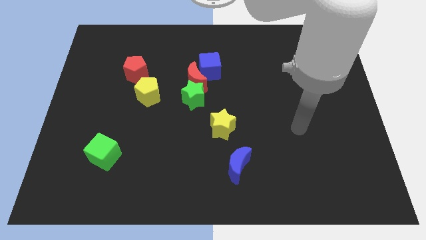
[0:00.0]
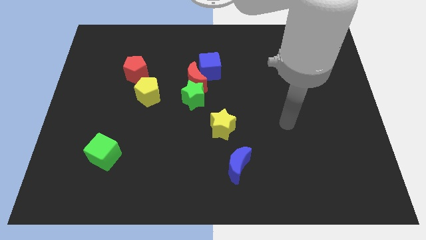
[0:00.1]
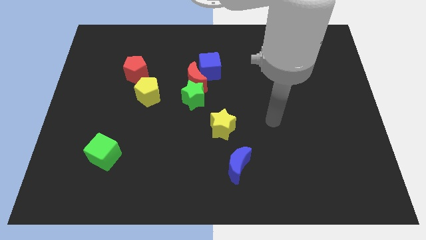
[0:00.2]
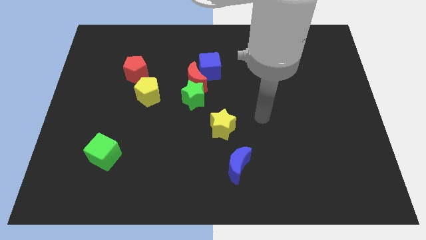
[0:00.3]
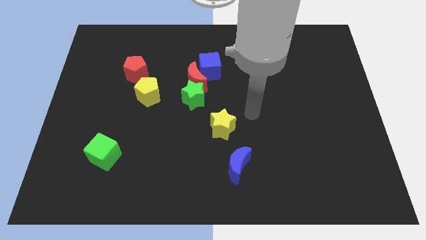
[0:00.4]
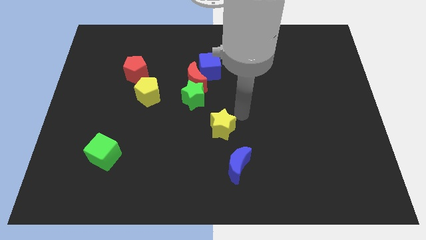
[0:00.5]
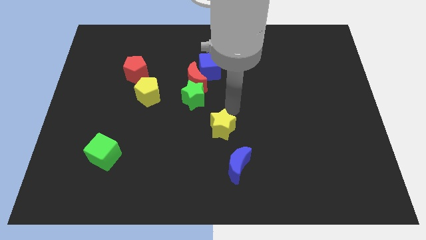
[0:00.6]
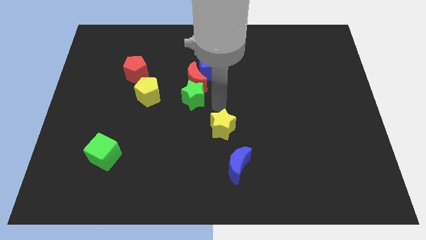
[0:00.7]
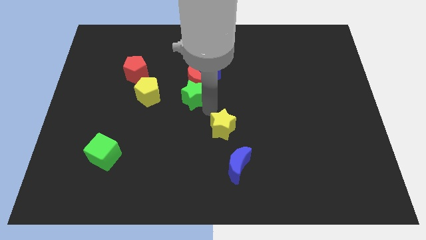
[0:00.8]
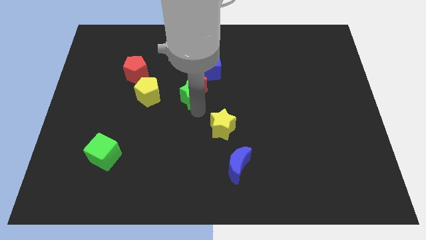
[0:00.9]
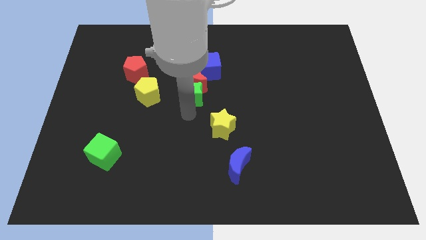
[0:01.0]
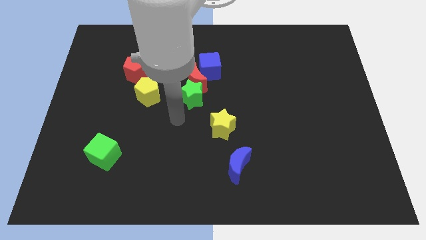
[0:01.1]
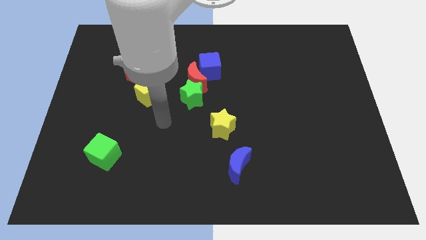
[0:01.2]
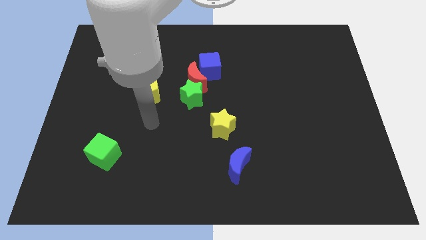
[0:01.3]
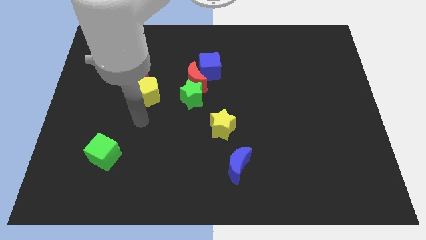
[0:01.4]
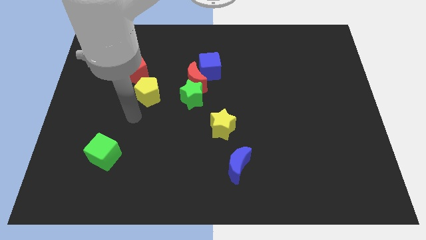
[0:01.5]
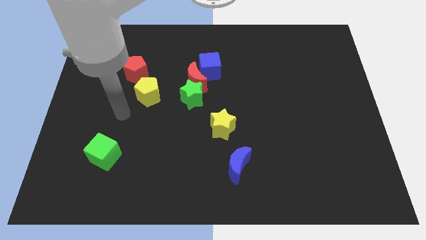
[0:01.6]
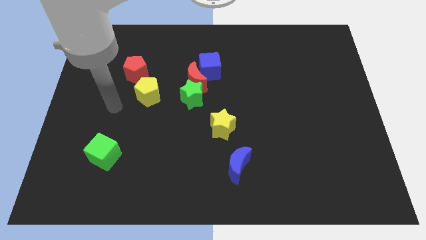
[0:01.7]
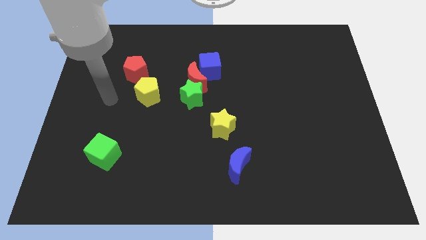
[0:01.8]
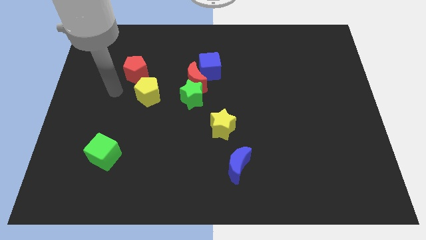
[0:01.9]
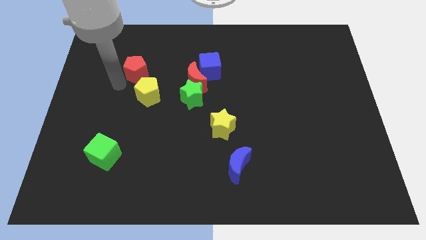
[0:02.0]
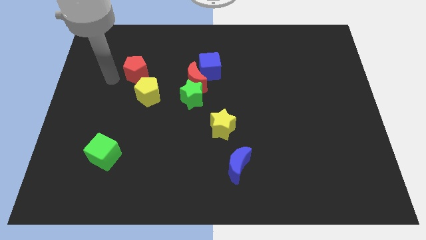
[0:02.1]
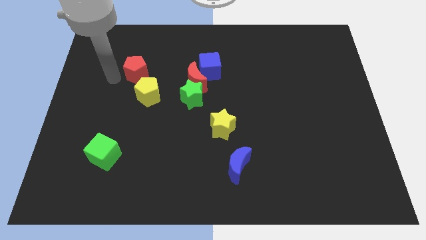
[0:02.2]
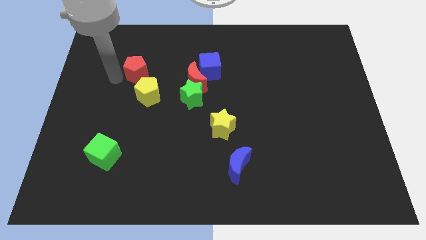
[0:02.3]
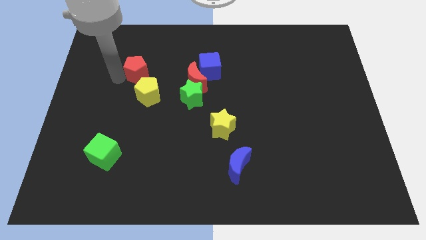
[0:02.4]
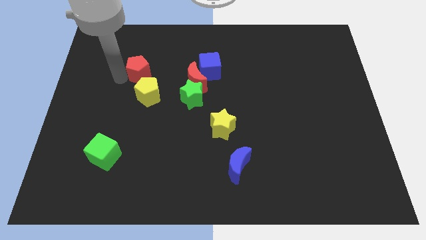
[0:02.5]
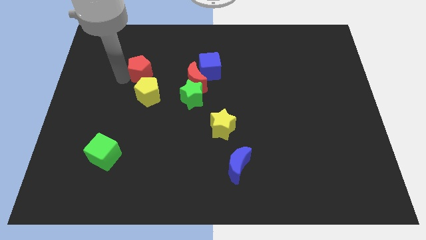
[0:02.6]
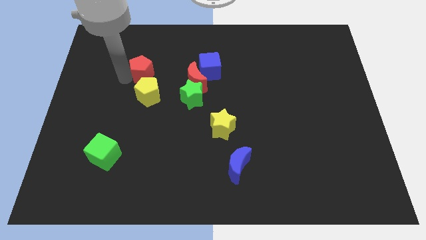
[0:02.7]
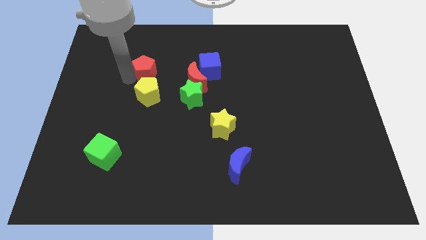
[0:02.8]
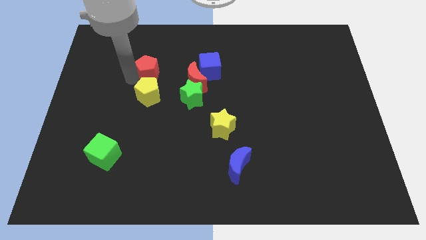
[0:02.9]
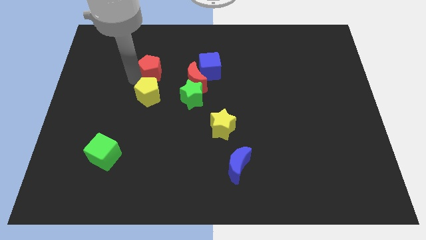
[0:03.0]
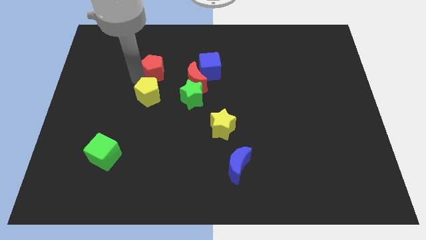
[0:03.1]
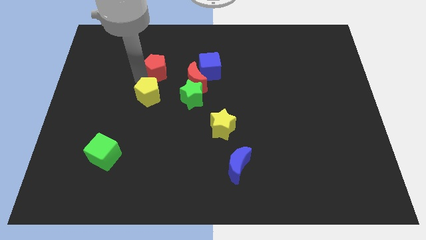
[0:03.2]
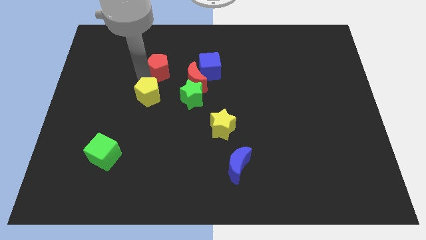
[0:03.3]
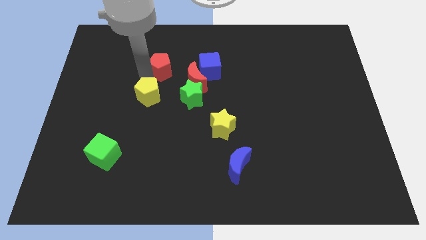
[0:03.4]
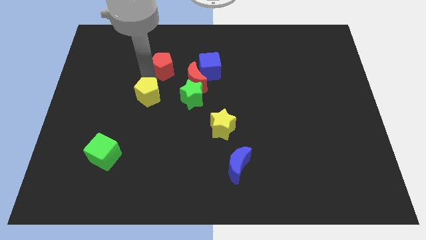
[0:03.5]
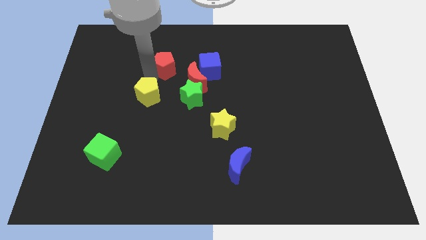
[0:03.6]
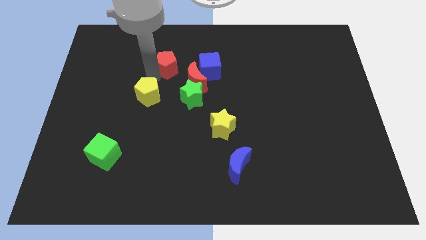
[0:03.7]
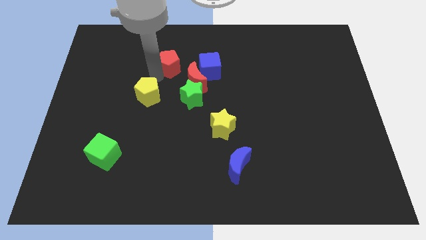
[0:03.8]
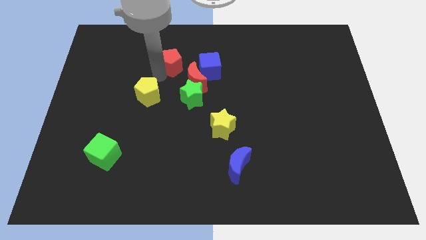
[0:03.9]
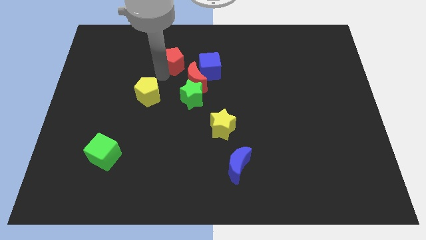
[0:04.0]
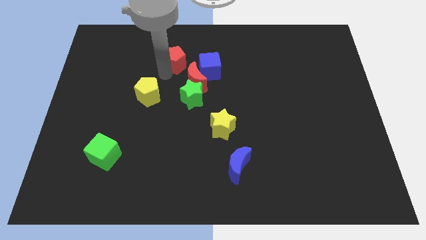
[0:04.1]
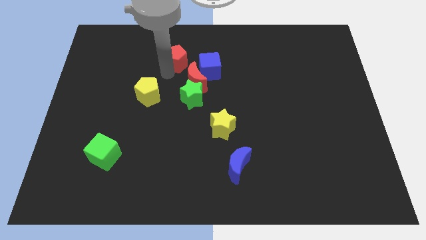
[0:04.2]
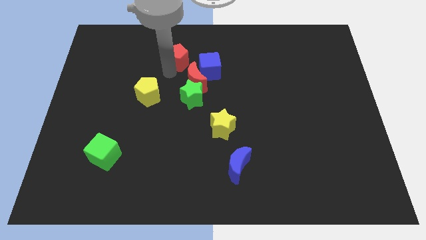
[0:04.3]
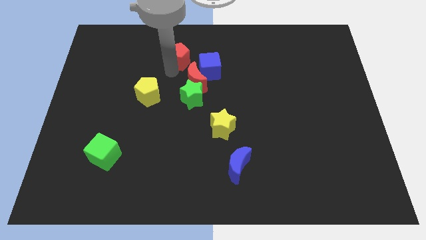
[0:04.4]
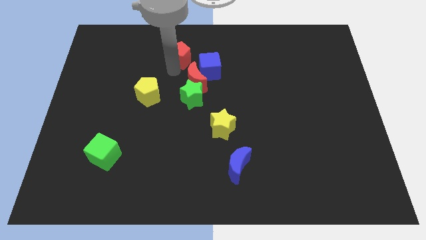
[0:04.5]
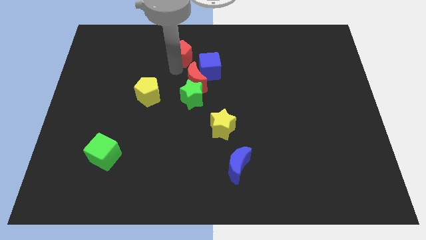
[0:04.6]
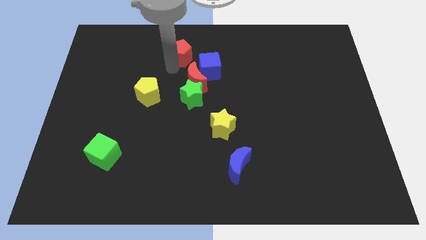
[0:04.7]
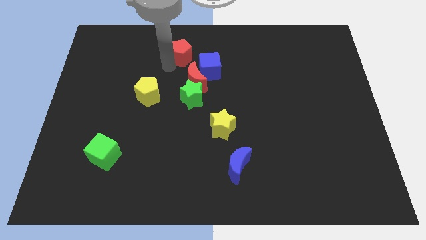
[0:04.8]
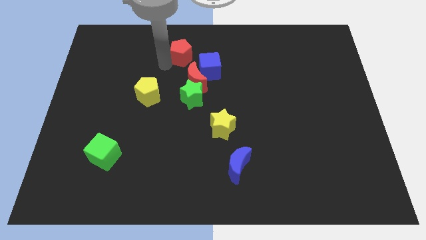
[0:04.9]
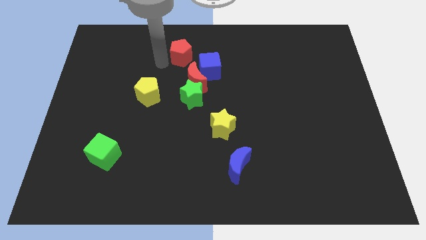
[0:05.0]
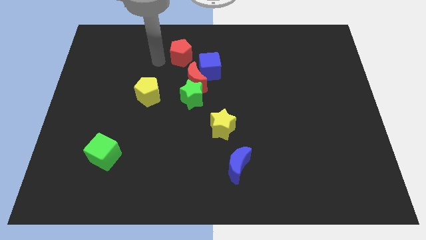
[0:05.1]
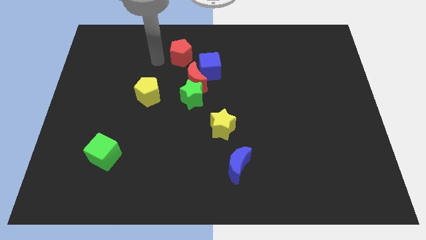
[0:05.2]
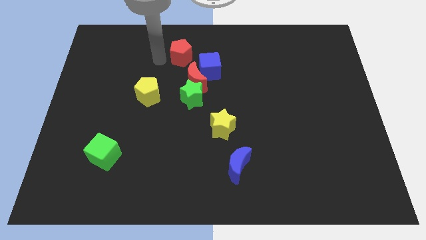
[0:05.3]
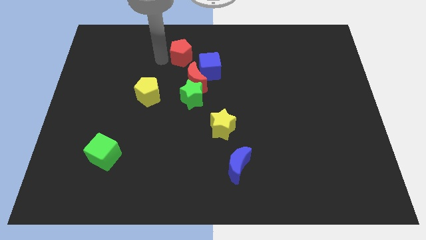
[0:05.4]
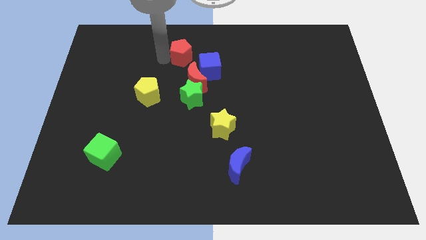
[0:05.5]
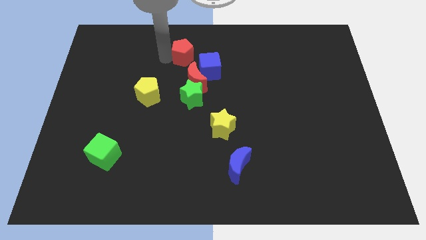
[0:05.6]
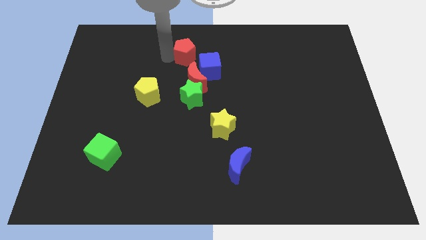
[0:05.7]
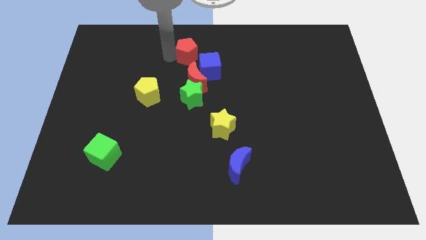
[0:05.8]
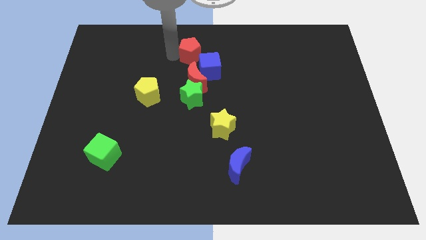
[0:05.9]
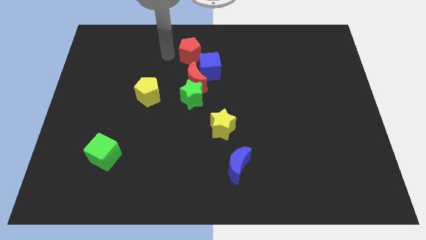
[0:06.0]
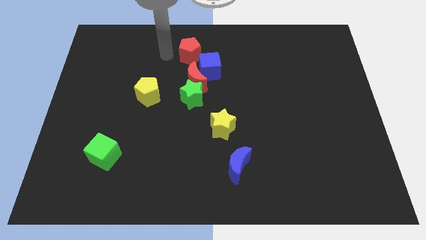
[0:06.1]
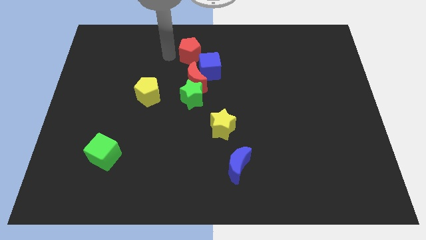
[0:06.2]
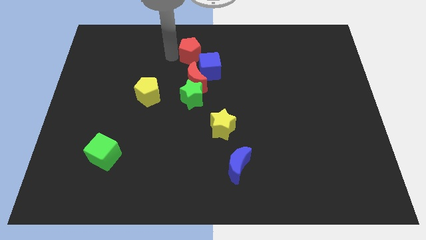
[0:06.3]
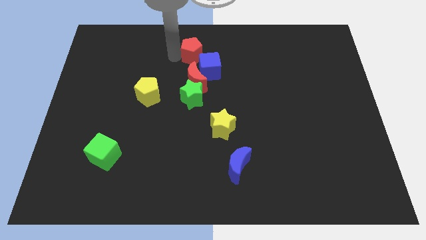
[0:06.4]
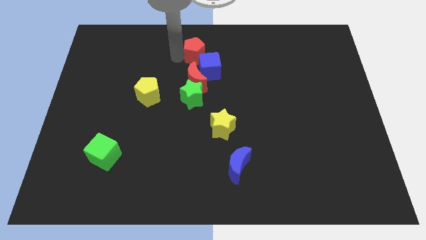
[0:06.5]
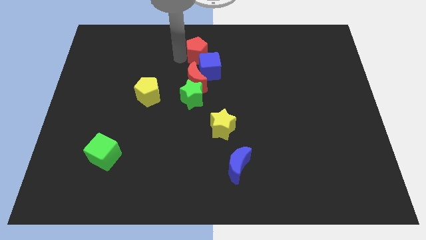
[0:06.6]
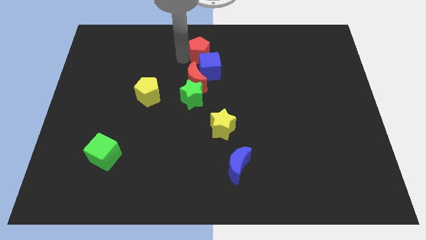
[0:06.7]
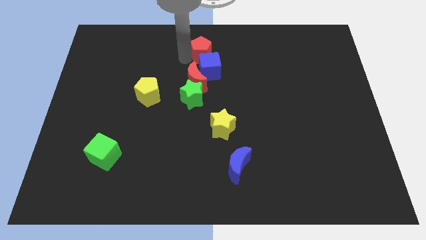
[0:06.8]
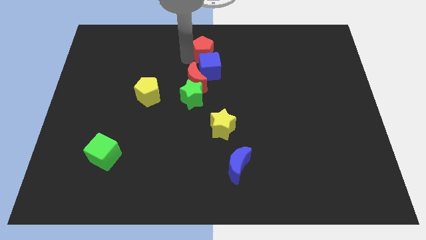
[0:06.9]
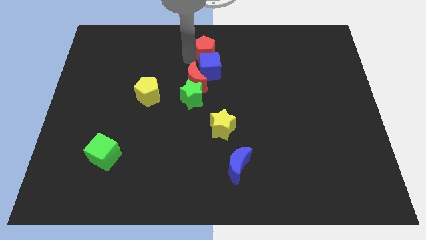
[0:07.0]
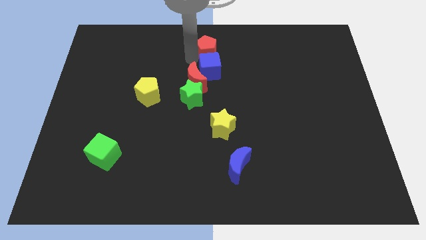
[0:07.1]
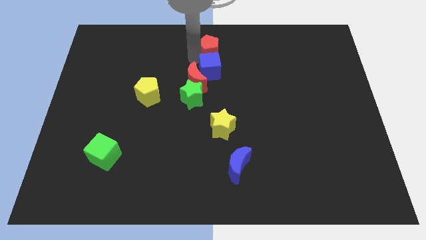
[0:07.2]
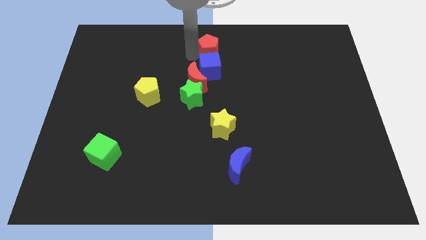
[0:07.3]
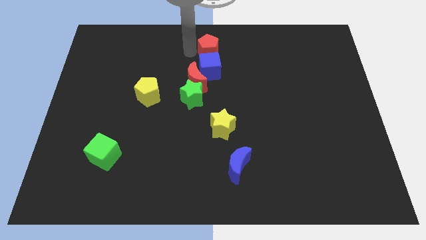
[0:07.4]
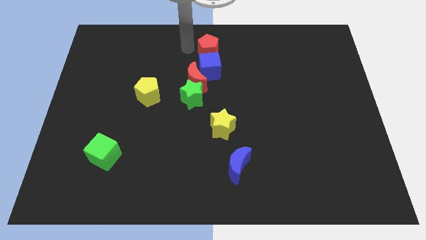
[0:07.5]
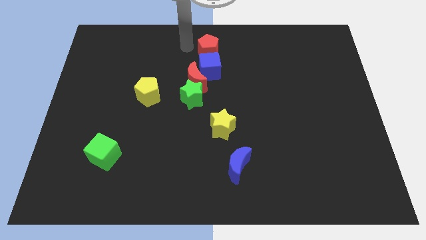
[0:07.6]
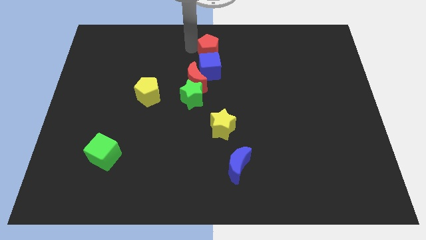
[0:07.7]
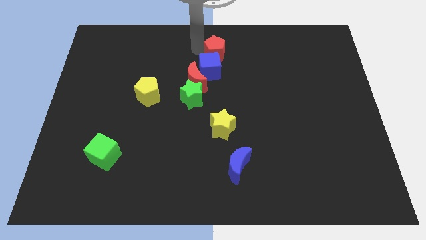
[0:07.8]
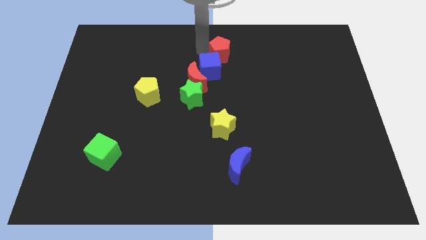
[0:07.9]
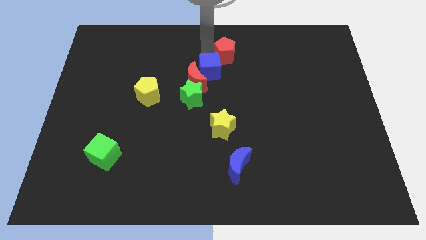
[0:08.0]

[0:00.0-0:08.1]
slide the red pentagon to the right
